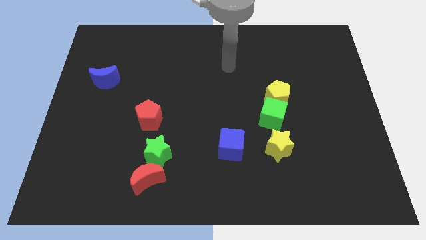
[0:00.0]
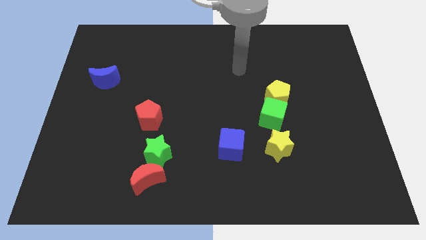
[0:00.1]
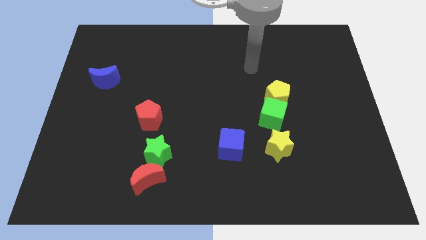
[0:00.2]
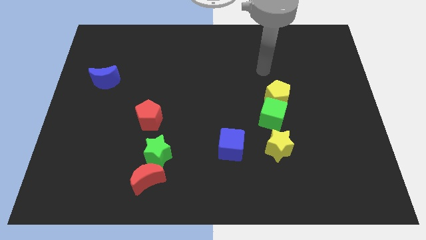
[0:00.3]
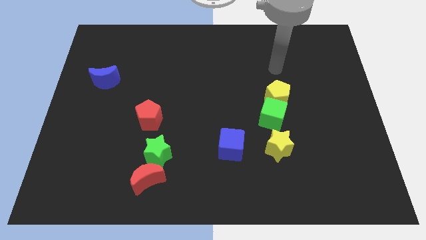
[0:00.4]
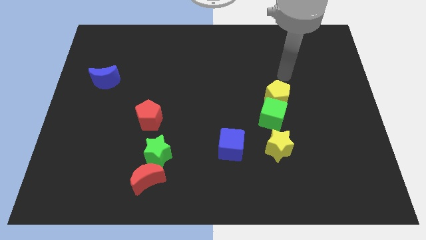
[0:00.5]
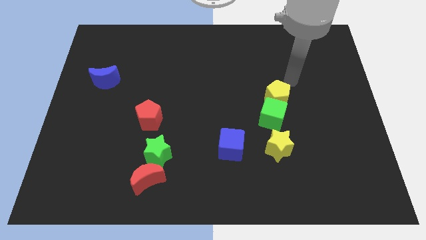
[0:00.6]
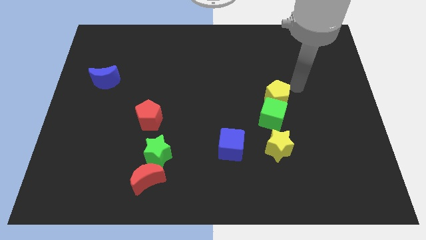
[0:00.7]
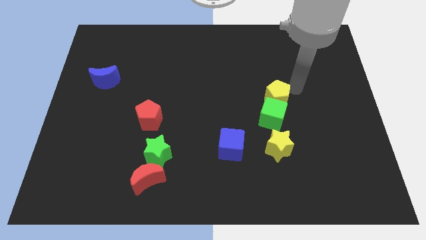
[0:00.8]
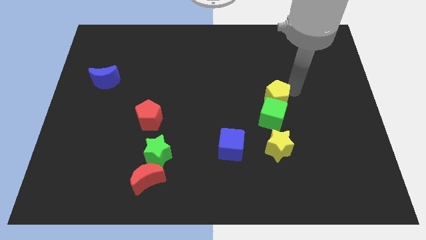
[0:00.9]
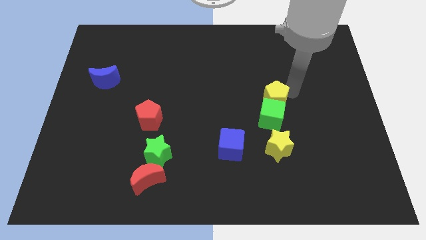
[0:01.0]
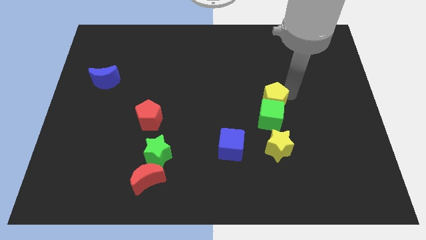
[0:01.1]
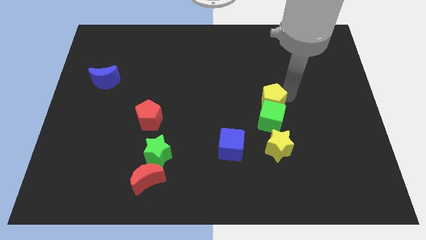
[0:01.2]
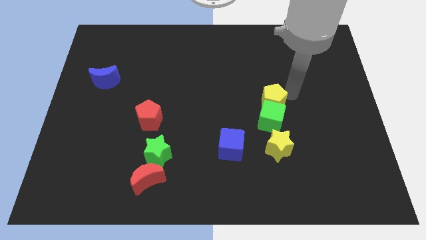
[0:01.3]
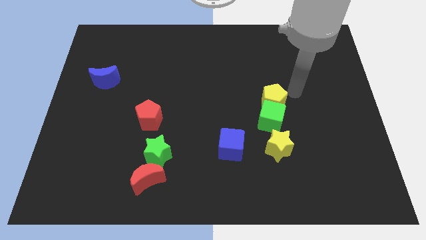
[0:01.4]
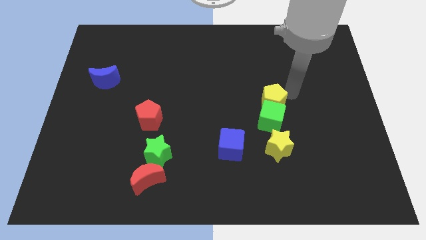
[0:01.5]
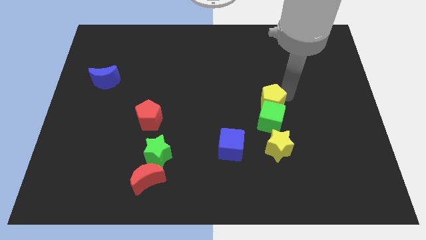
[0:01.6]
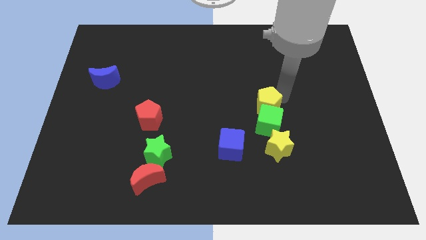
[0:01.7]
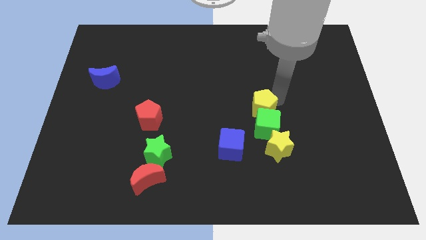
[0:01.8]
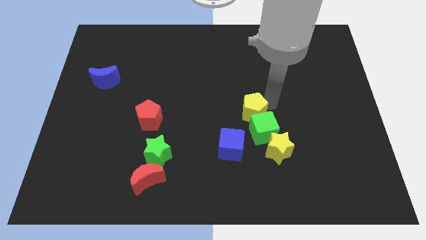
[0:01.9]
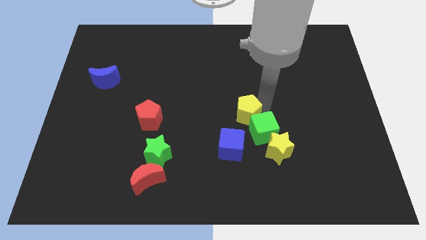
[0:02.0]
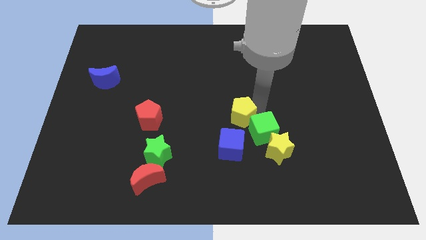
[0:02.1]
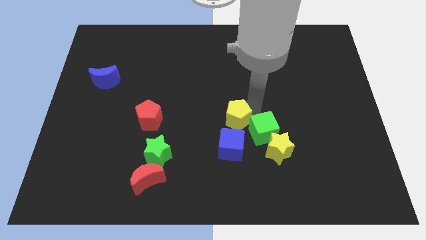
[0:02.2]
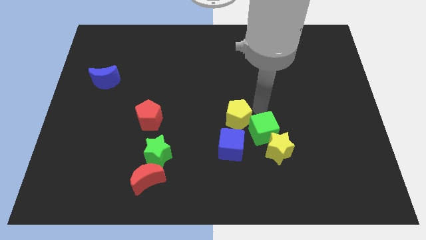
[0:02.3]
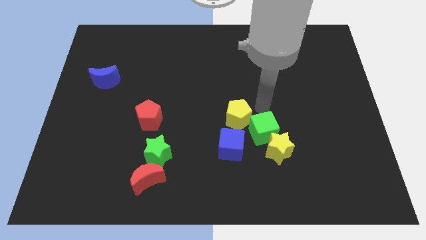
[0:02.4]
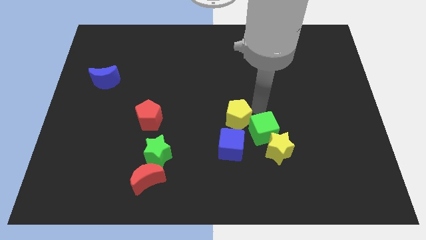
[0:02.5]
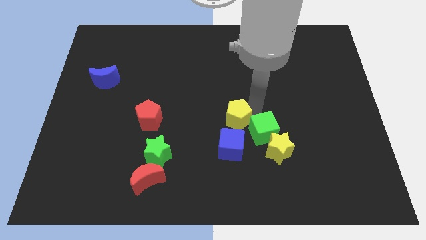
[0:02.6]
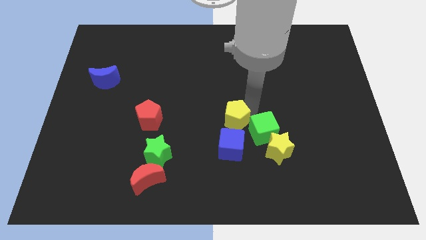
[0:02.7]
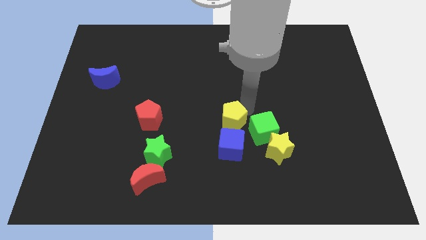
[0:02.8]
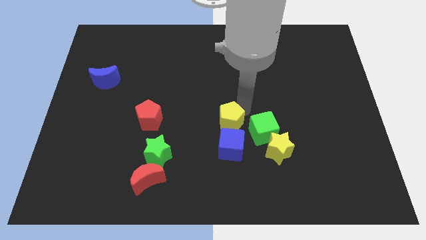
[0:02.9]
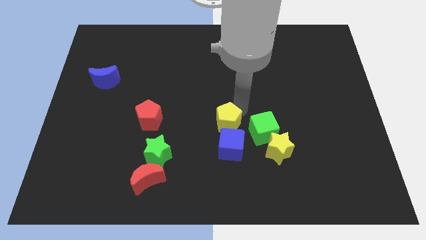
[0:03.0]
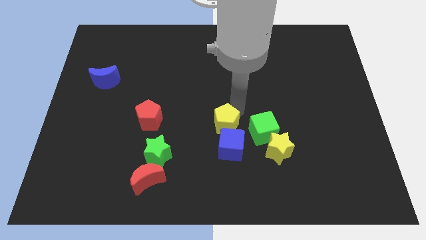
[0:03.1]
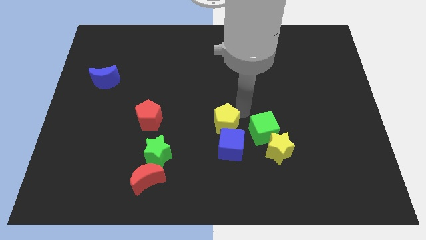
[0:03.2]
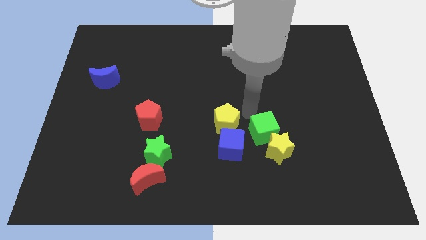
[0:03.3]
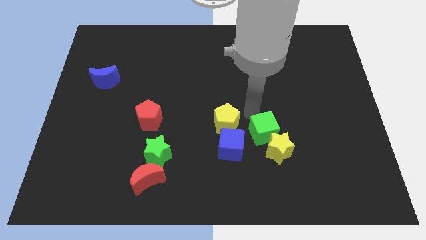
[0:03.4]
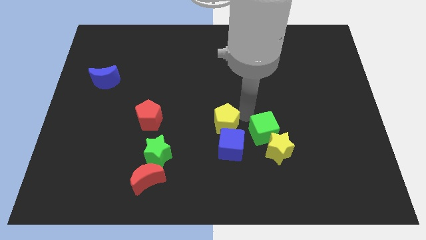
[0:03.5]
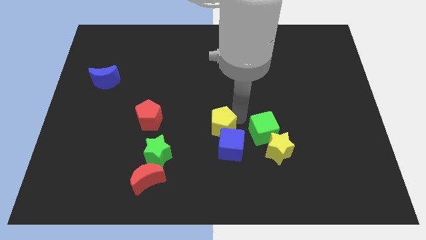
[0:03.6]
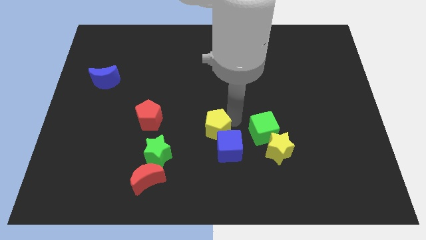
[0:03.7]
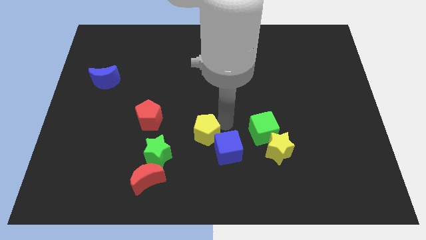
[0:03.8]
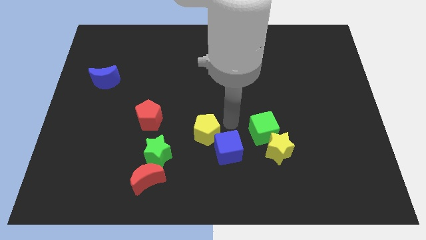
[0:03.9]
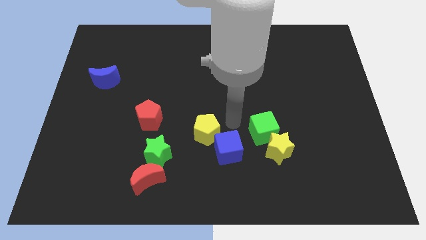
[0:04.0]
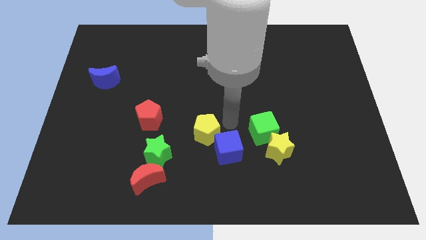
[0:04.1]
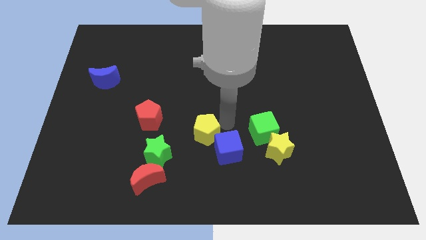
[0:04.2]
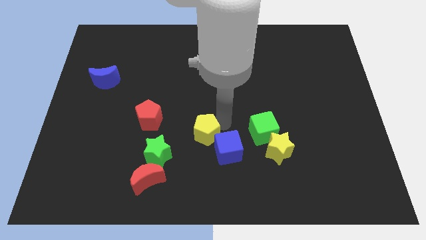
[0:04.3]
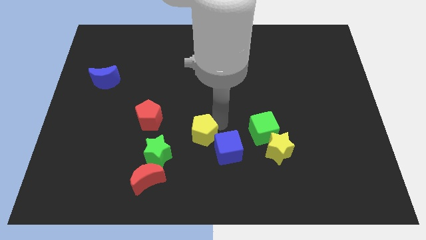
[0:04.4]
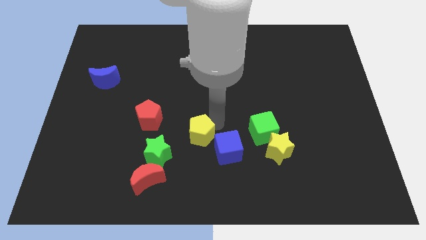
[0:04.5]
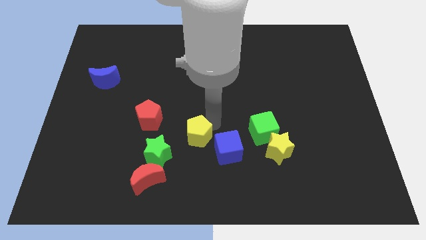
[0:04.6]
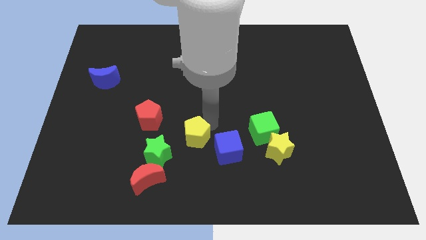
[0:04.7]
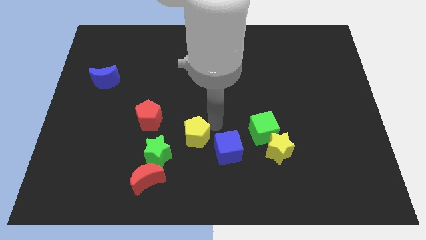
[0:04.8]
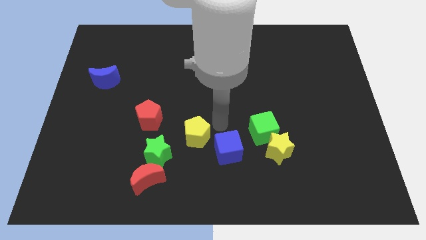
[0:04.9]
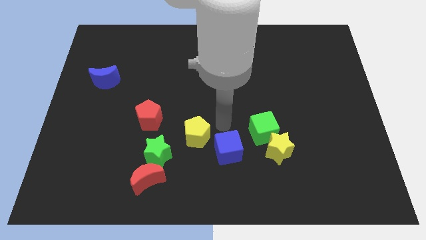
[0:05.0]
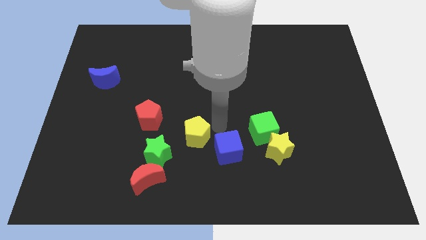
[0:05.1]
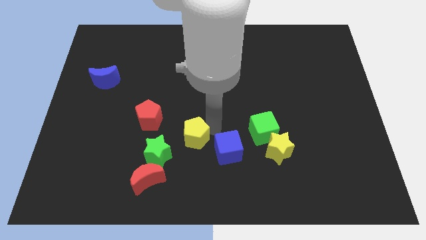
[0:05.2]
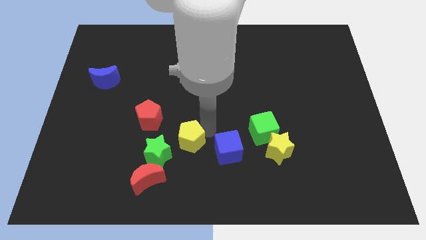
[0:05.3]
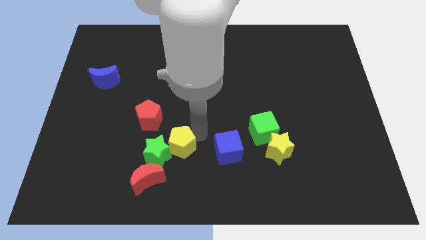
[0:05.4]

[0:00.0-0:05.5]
slide the yellow pentagon close to the green star

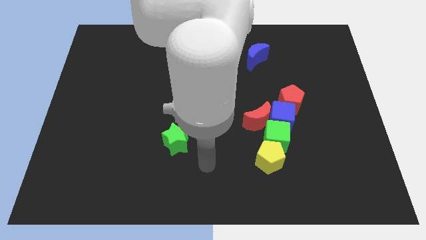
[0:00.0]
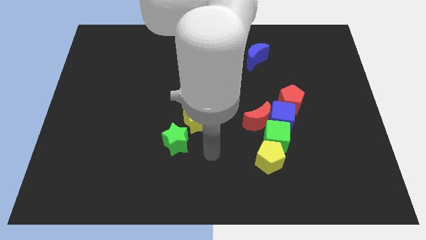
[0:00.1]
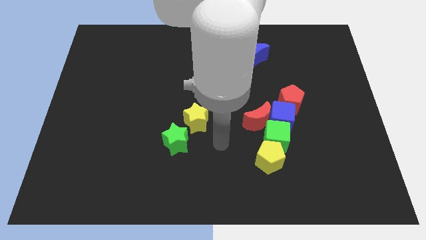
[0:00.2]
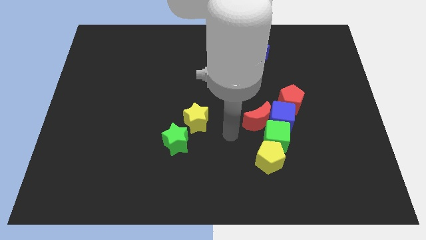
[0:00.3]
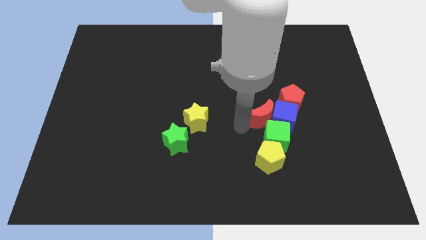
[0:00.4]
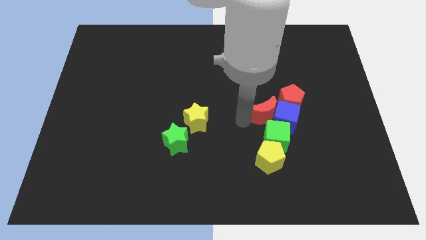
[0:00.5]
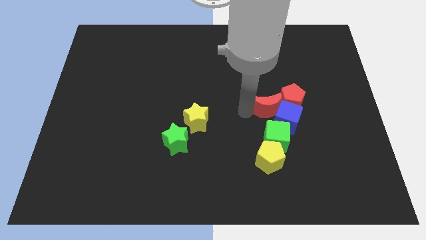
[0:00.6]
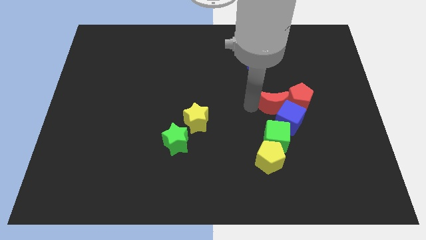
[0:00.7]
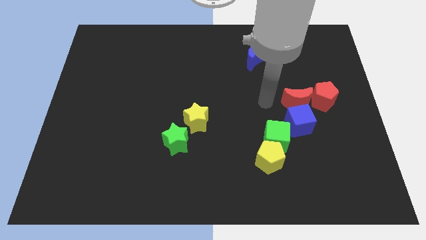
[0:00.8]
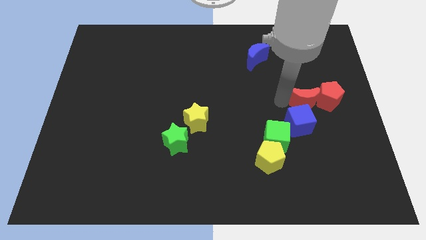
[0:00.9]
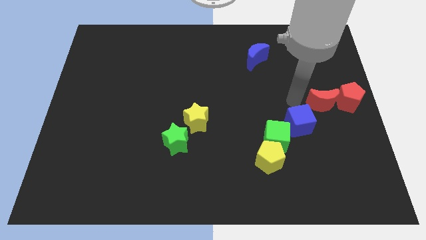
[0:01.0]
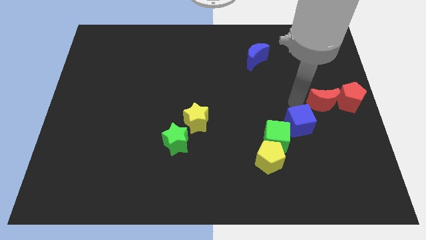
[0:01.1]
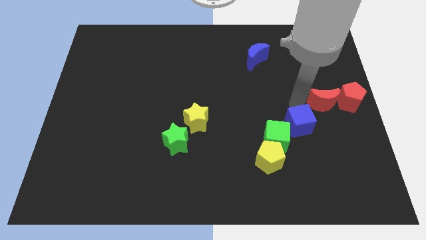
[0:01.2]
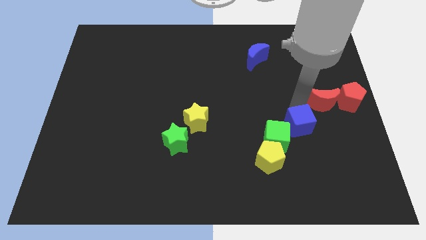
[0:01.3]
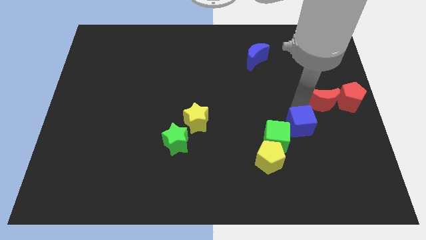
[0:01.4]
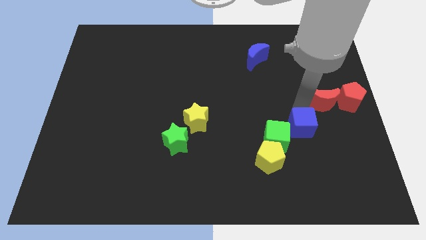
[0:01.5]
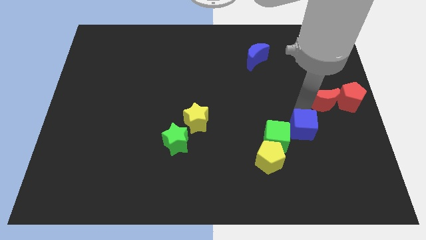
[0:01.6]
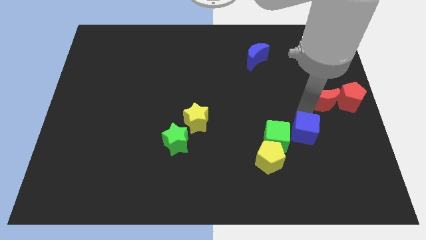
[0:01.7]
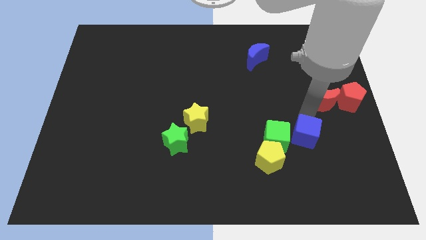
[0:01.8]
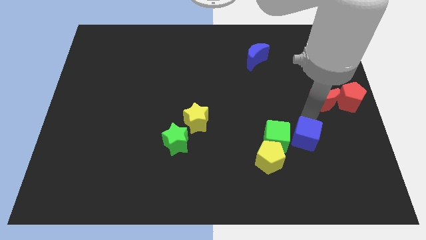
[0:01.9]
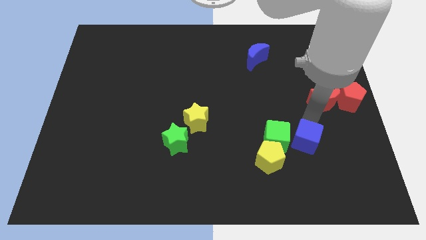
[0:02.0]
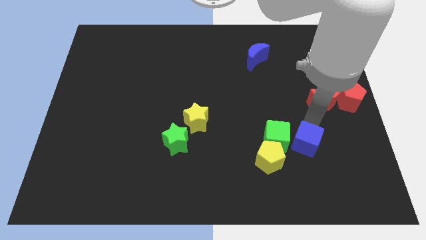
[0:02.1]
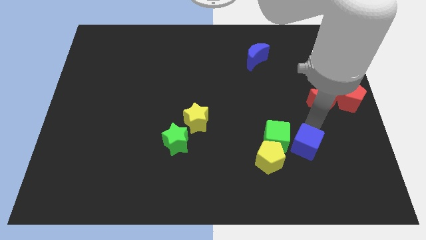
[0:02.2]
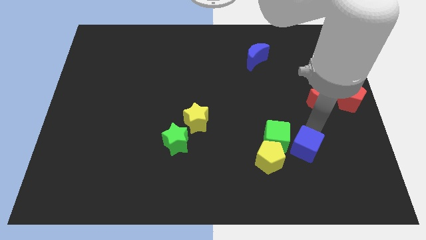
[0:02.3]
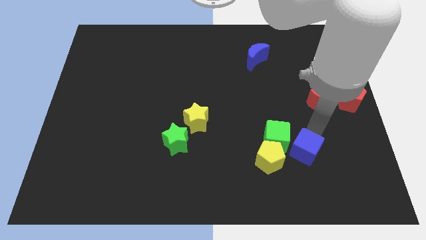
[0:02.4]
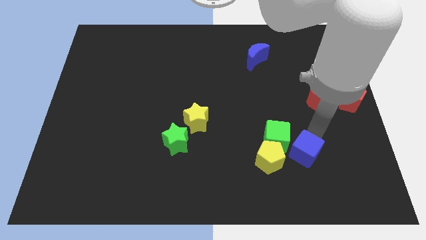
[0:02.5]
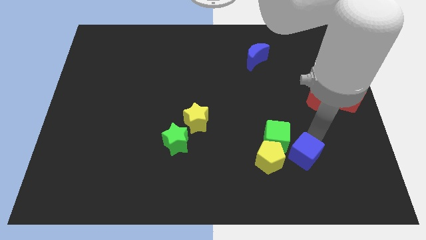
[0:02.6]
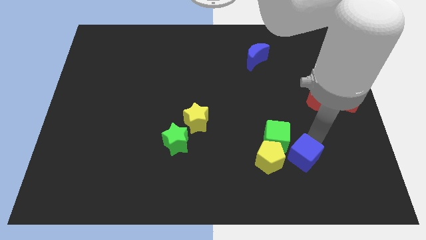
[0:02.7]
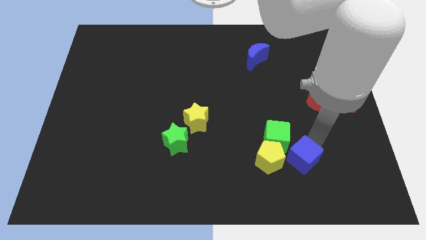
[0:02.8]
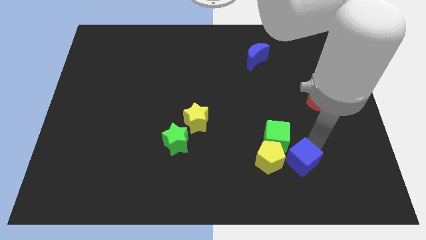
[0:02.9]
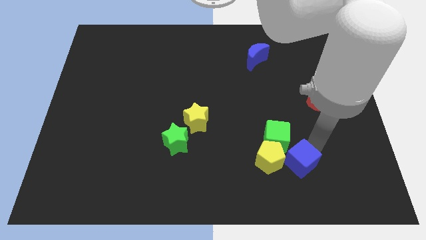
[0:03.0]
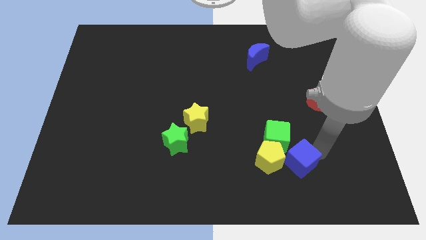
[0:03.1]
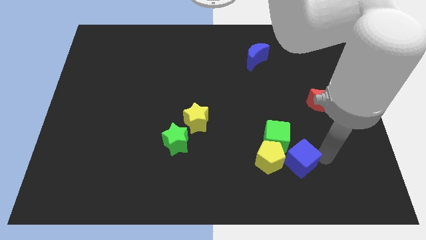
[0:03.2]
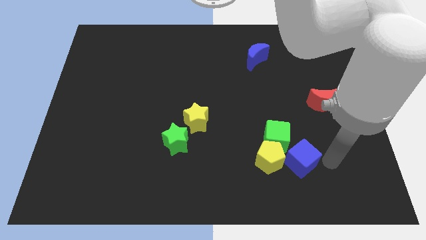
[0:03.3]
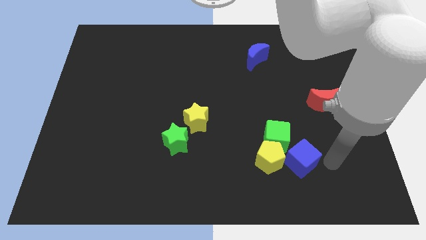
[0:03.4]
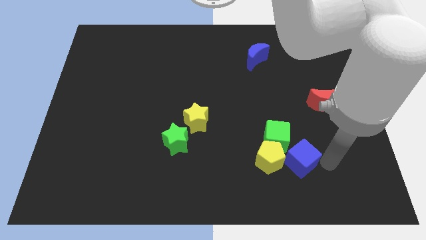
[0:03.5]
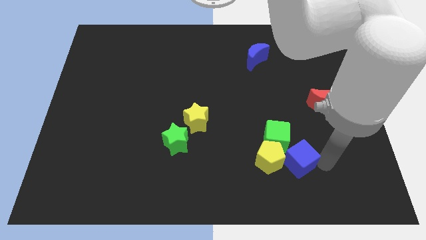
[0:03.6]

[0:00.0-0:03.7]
move the blue cube next to the yellow pentagon
